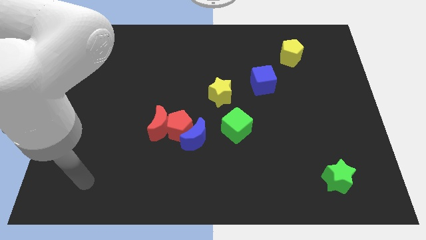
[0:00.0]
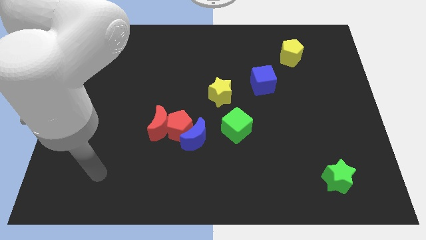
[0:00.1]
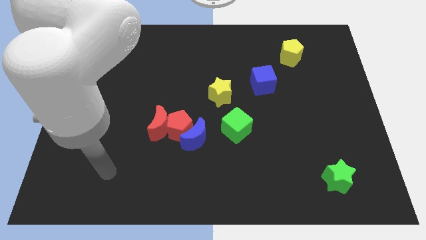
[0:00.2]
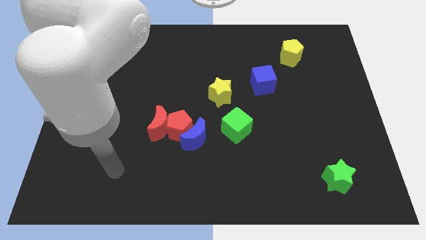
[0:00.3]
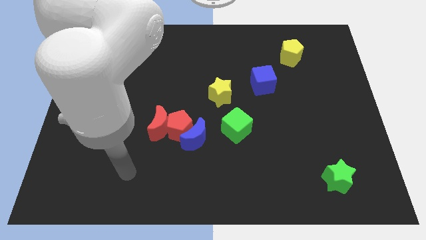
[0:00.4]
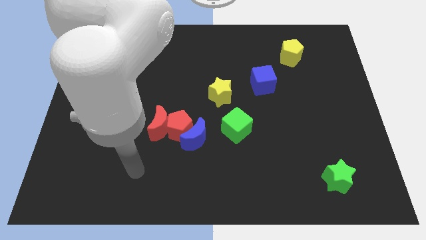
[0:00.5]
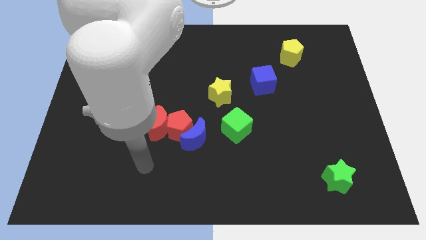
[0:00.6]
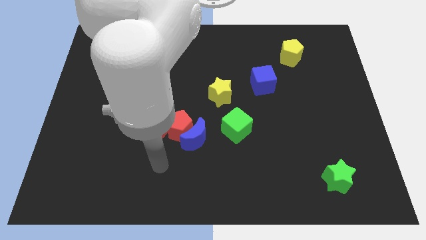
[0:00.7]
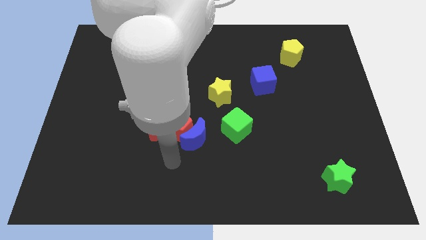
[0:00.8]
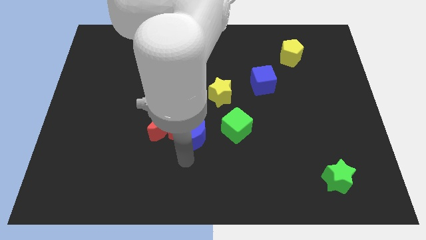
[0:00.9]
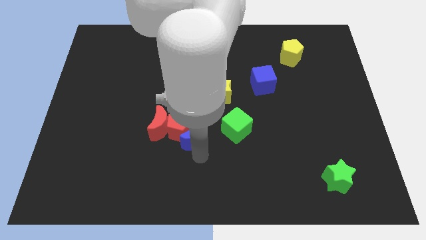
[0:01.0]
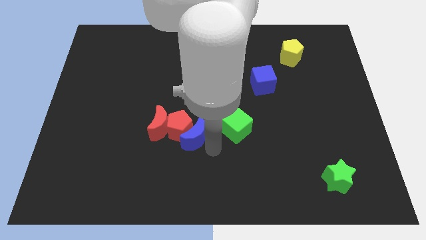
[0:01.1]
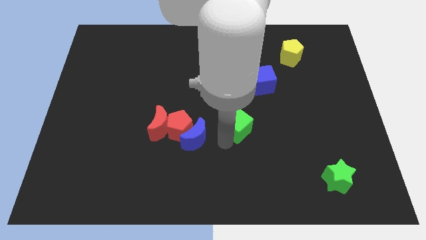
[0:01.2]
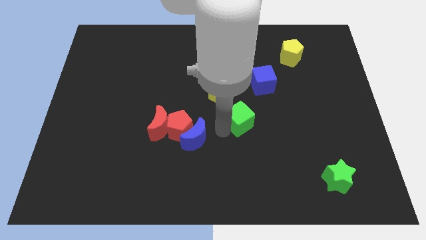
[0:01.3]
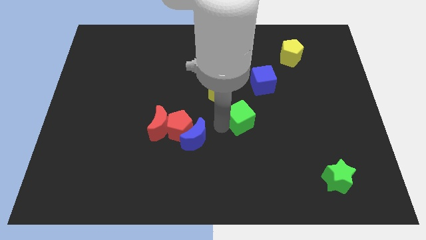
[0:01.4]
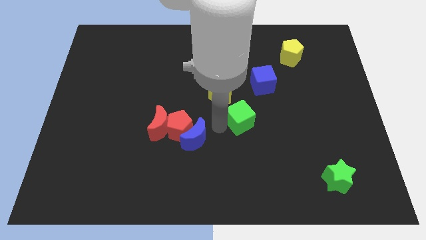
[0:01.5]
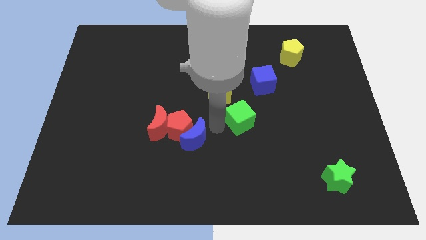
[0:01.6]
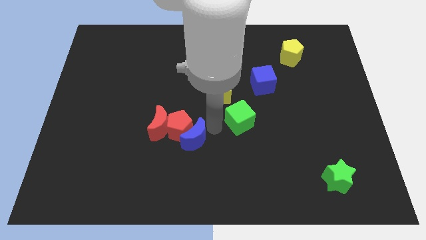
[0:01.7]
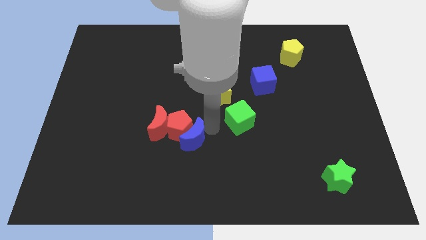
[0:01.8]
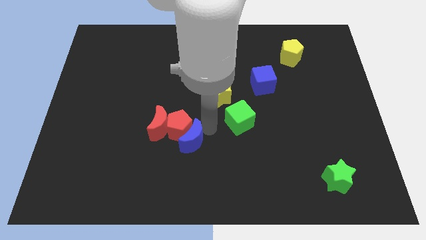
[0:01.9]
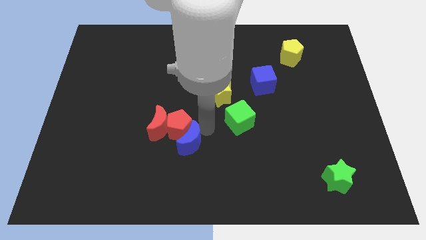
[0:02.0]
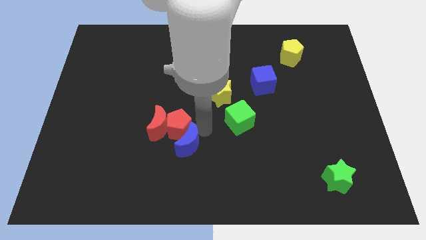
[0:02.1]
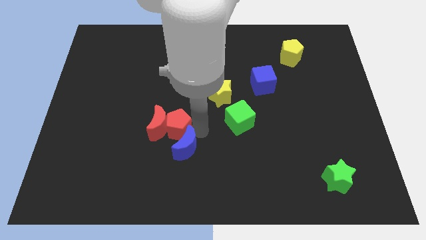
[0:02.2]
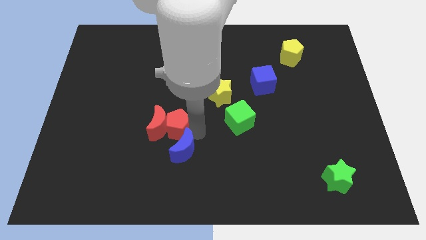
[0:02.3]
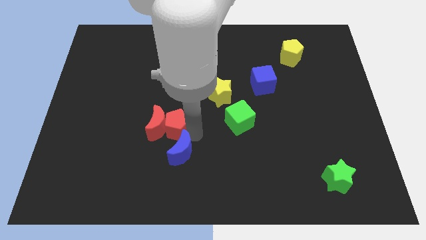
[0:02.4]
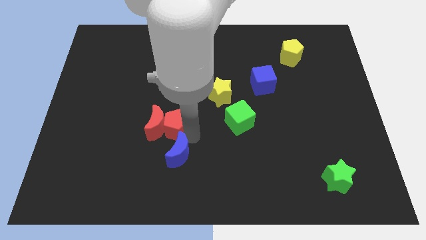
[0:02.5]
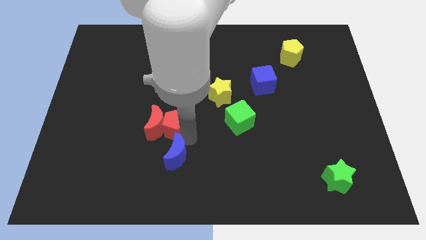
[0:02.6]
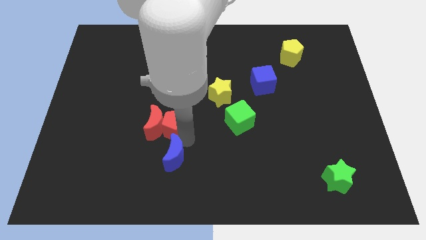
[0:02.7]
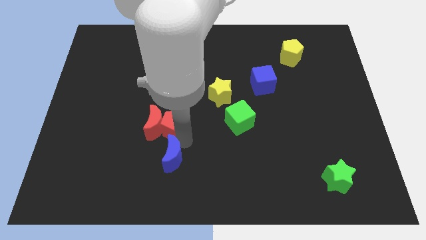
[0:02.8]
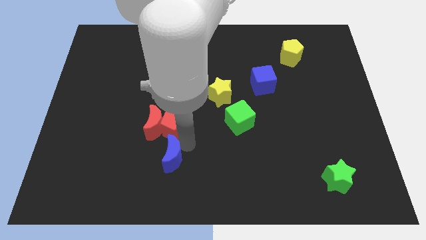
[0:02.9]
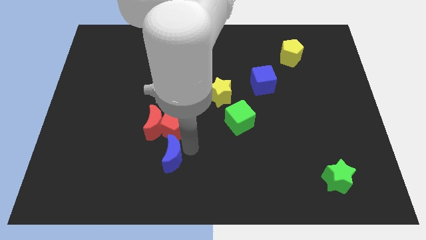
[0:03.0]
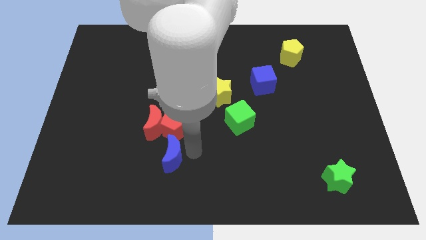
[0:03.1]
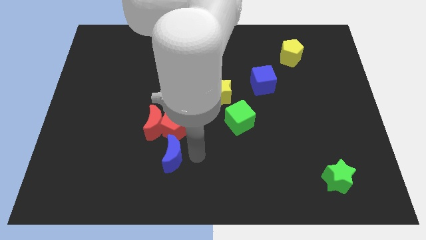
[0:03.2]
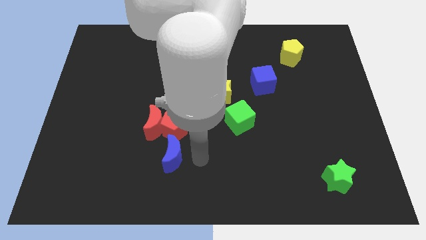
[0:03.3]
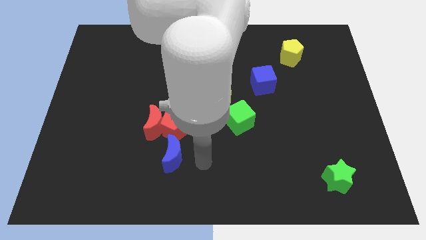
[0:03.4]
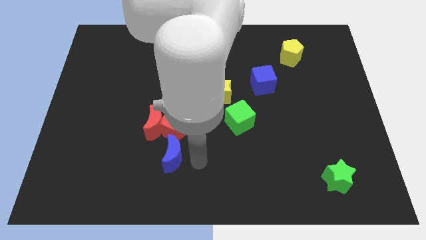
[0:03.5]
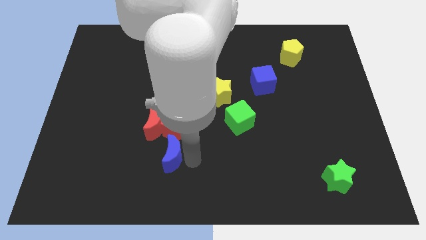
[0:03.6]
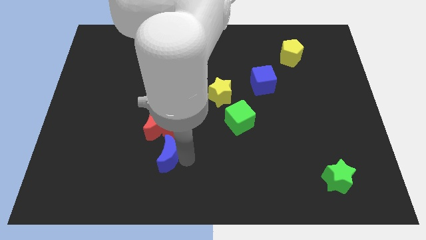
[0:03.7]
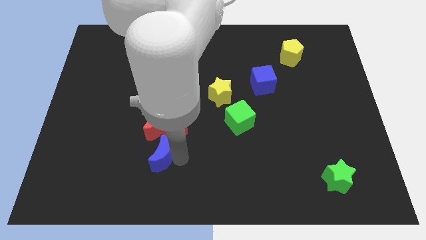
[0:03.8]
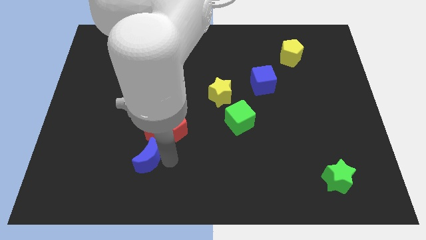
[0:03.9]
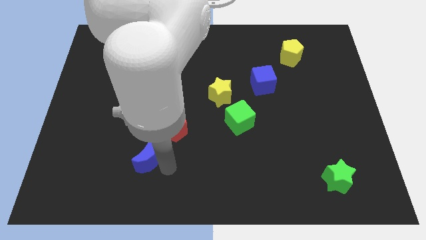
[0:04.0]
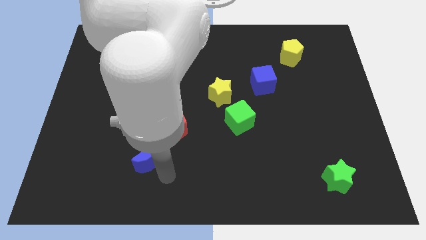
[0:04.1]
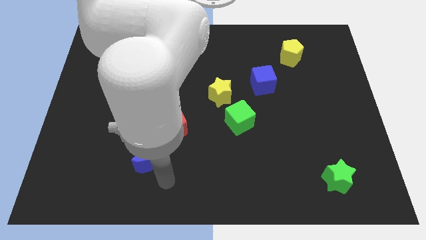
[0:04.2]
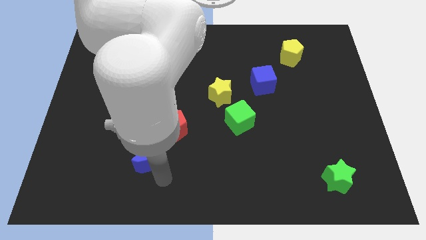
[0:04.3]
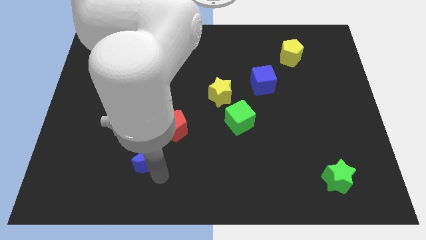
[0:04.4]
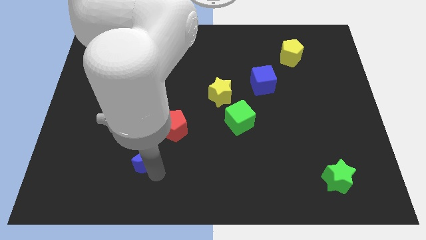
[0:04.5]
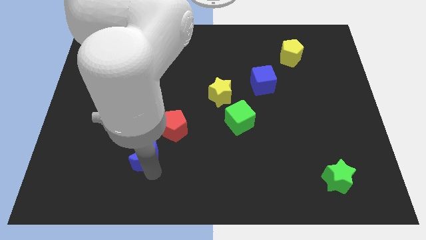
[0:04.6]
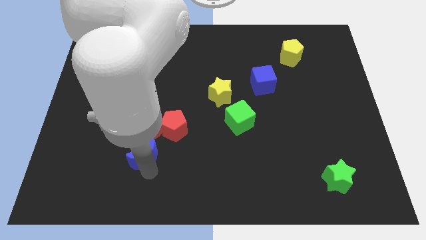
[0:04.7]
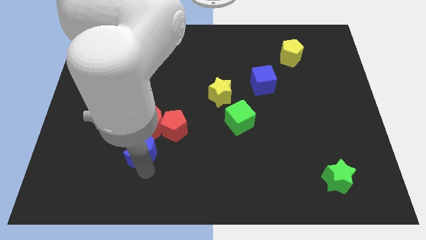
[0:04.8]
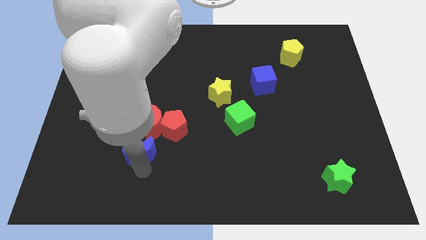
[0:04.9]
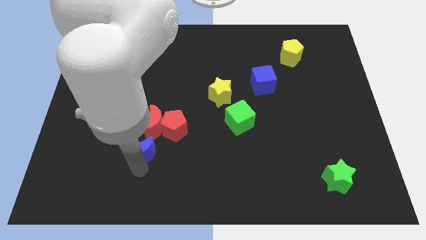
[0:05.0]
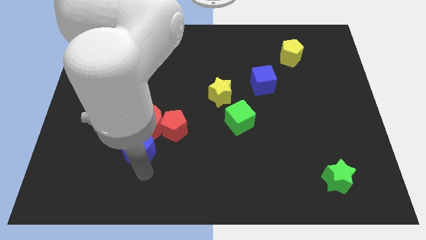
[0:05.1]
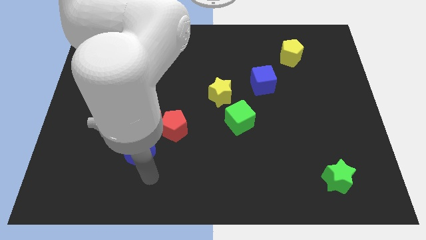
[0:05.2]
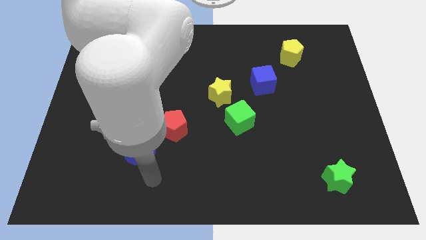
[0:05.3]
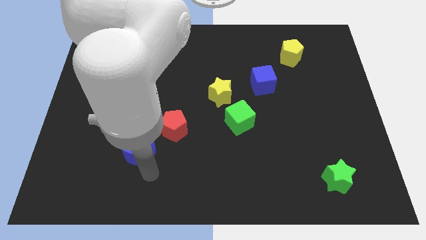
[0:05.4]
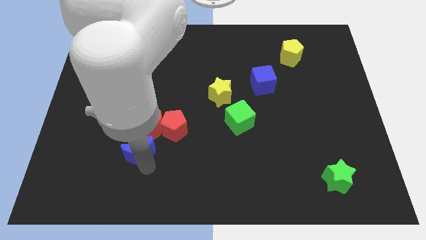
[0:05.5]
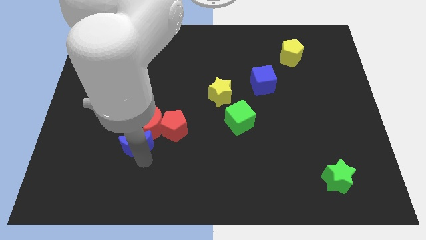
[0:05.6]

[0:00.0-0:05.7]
slide the blue moon just left of the red pentagon

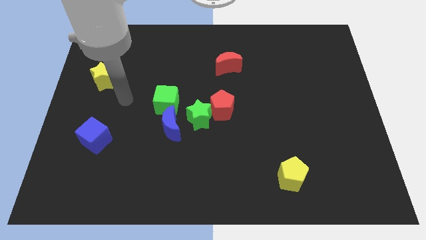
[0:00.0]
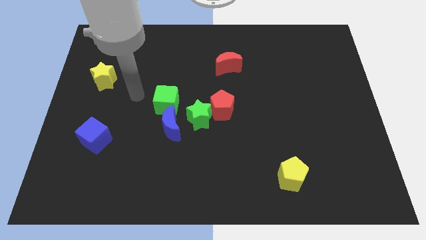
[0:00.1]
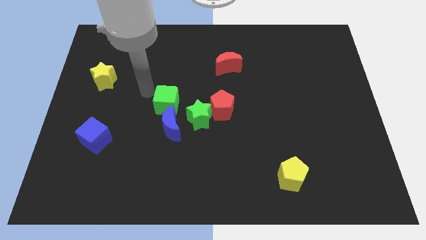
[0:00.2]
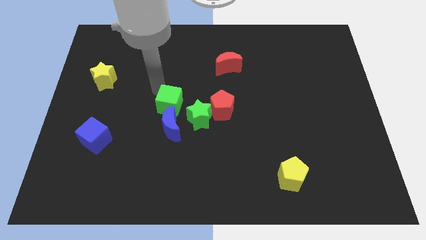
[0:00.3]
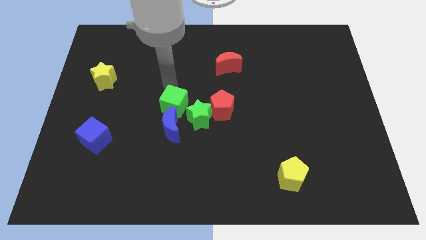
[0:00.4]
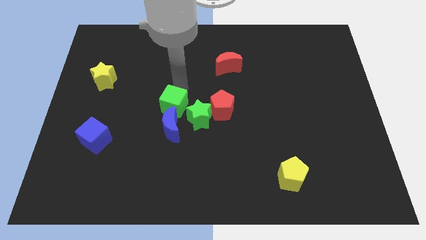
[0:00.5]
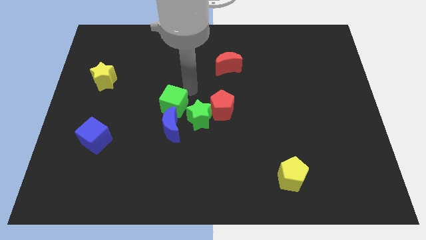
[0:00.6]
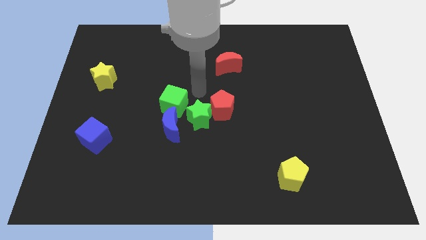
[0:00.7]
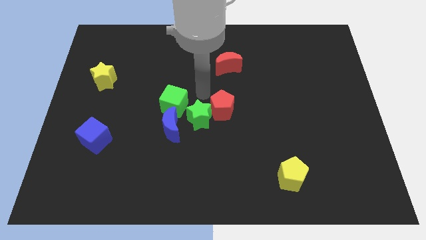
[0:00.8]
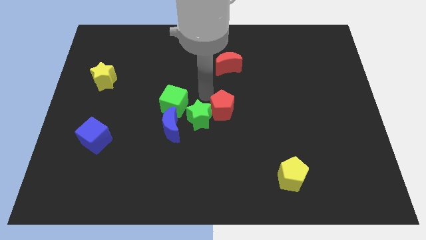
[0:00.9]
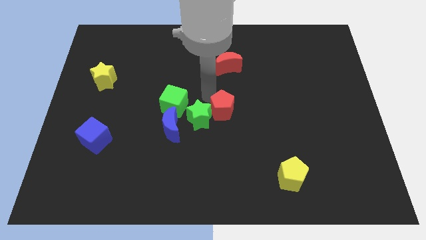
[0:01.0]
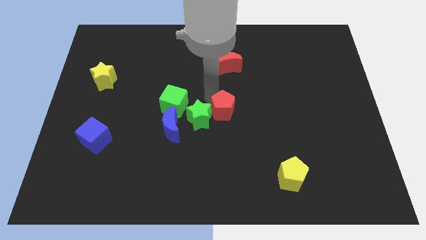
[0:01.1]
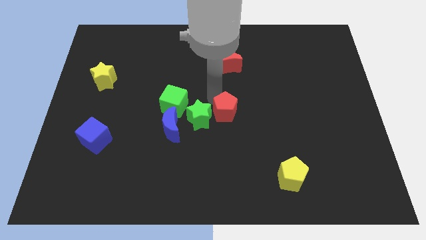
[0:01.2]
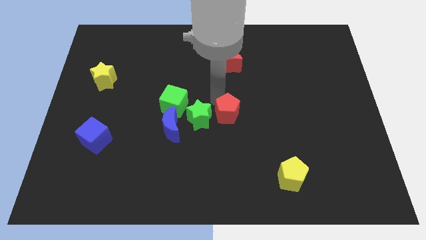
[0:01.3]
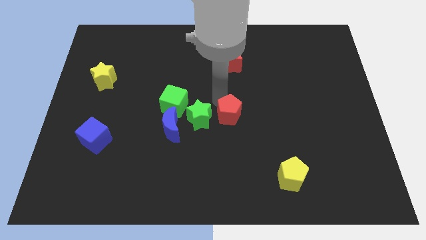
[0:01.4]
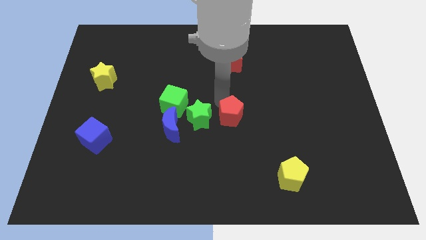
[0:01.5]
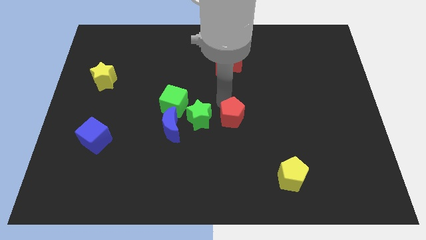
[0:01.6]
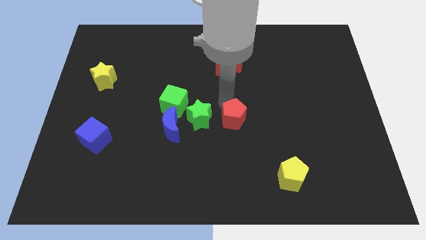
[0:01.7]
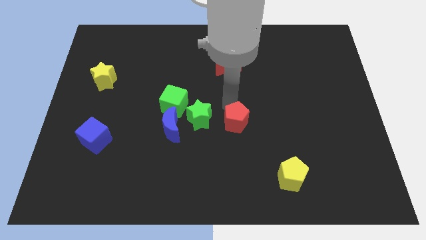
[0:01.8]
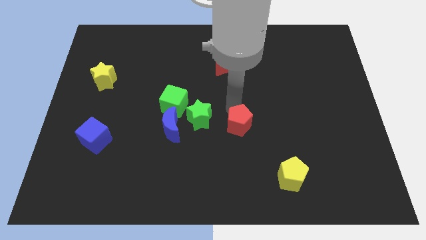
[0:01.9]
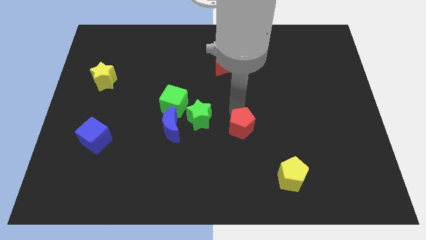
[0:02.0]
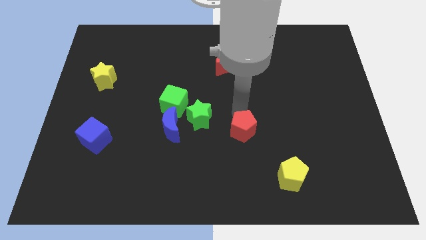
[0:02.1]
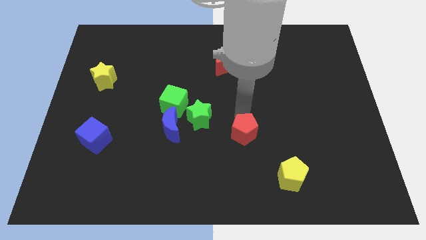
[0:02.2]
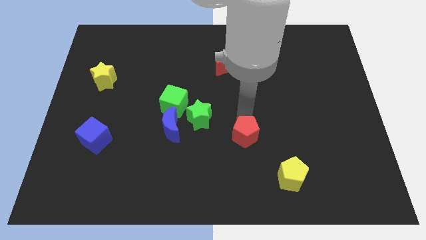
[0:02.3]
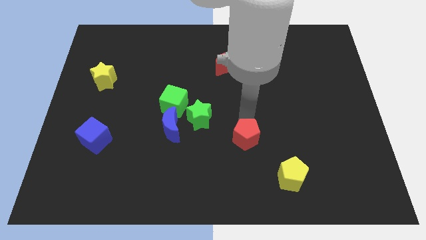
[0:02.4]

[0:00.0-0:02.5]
put the red pentagon diagonally up and to the left of the yellow pentagon
